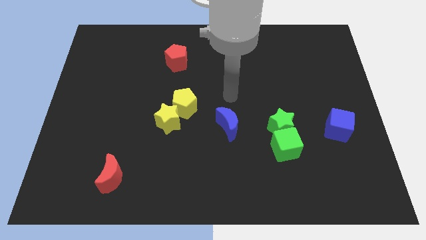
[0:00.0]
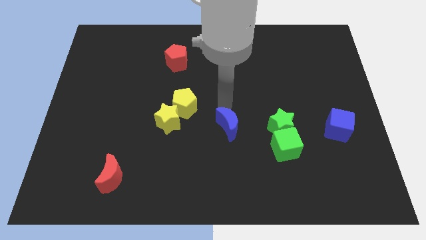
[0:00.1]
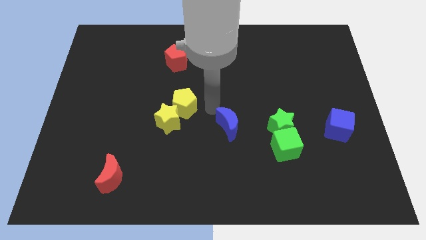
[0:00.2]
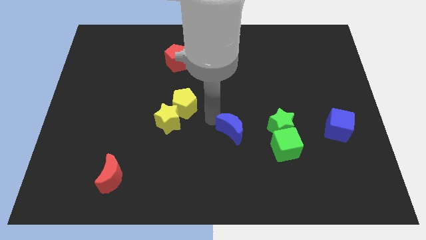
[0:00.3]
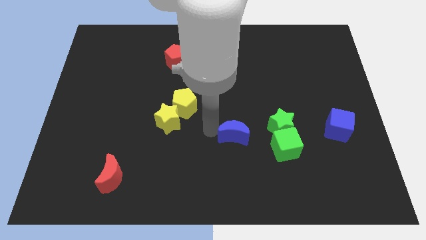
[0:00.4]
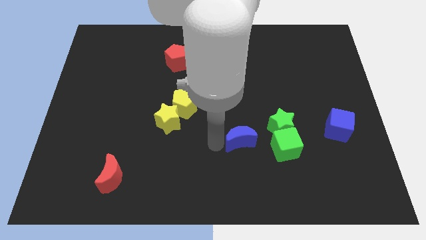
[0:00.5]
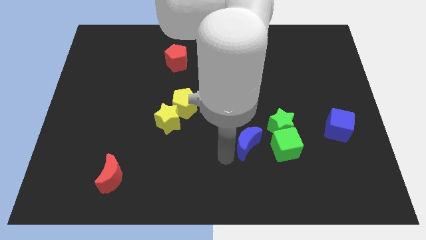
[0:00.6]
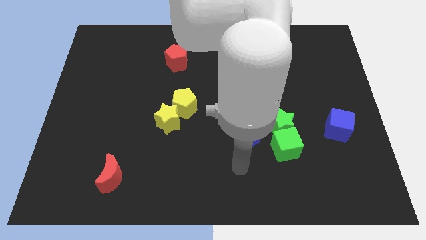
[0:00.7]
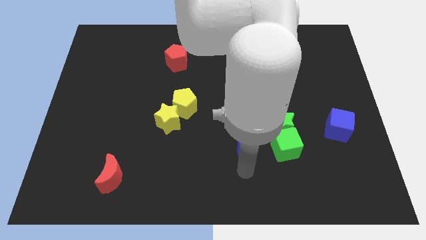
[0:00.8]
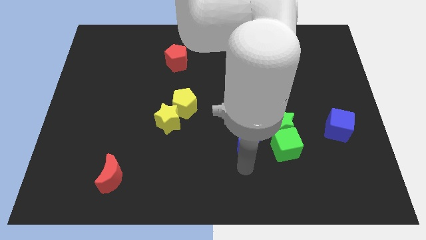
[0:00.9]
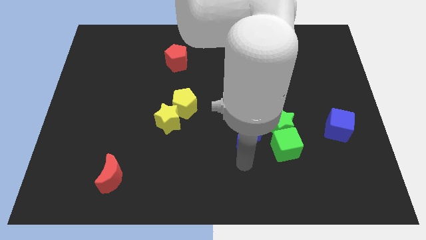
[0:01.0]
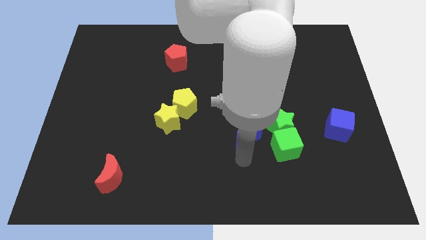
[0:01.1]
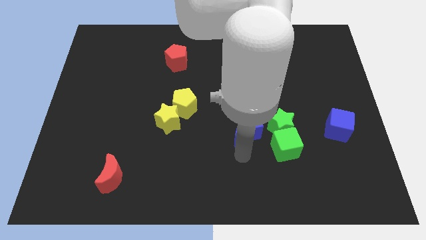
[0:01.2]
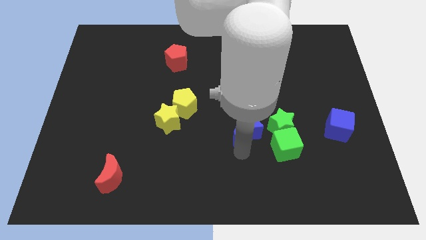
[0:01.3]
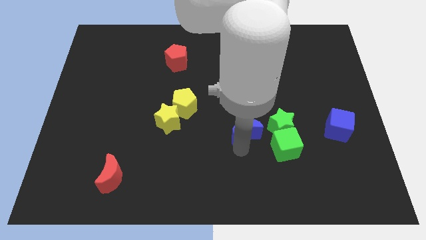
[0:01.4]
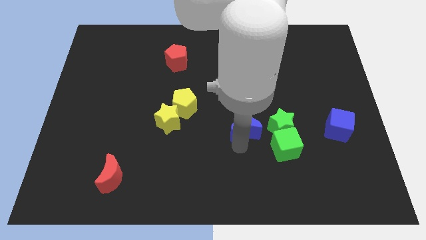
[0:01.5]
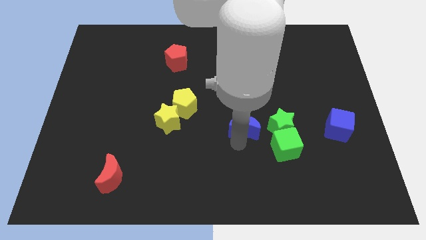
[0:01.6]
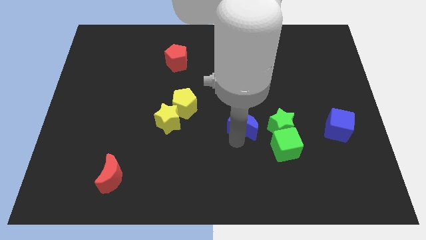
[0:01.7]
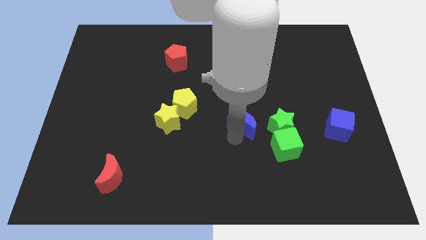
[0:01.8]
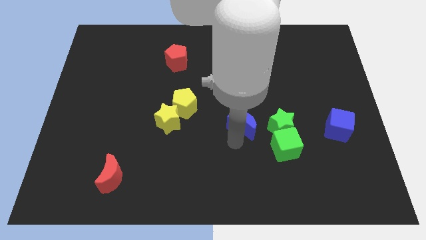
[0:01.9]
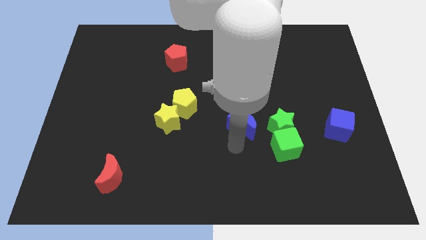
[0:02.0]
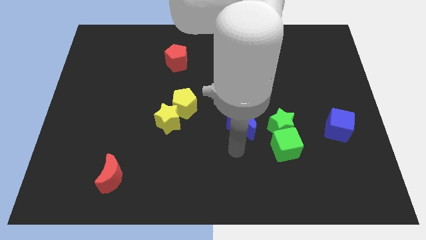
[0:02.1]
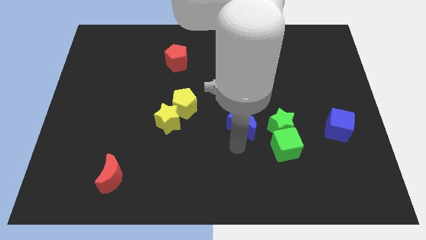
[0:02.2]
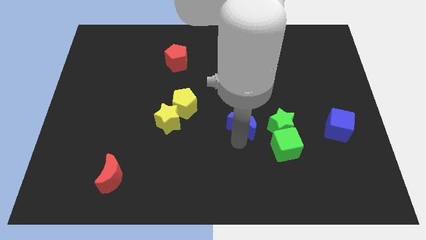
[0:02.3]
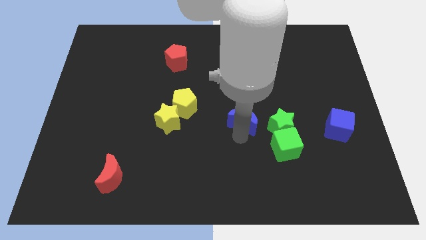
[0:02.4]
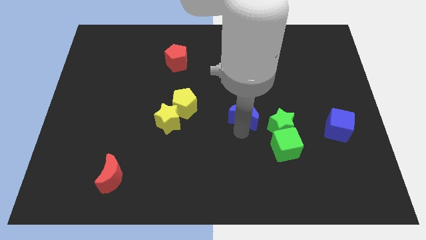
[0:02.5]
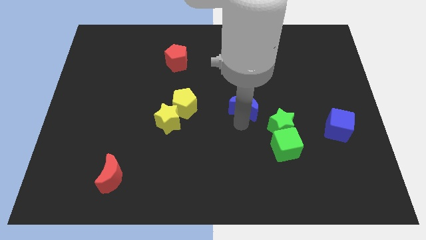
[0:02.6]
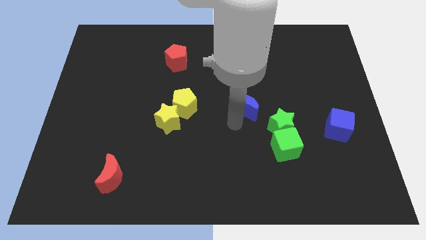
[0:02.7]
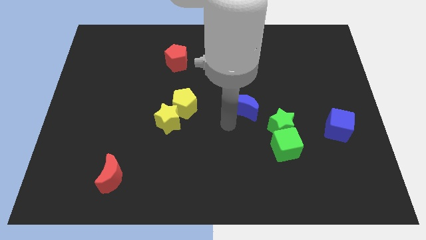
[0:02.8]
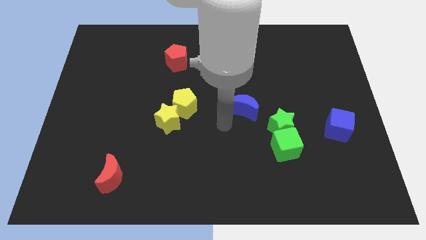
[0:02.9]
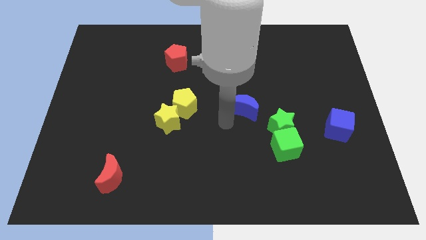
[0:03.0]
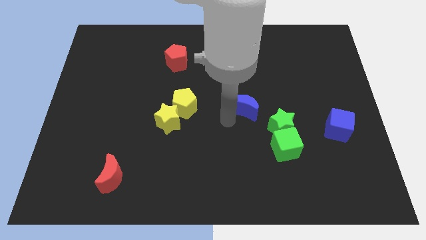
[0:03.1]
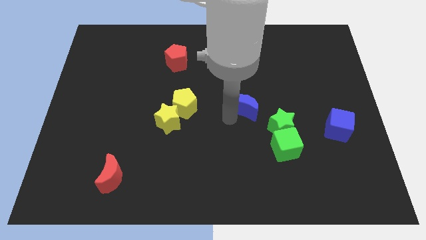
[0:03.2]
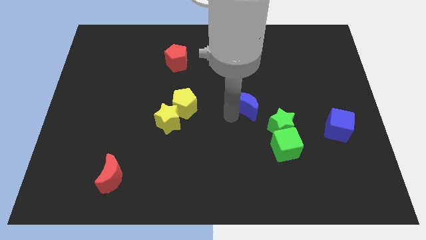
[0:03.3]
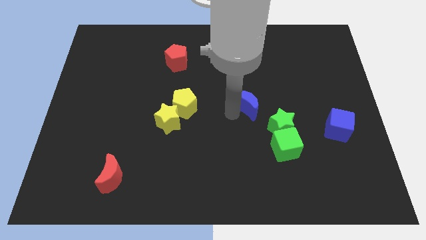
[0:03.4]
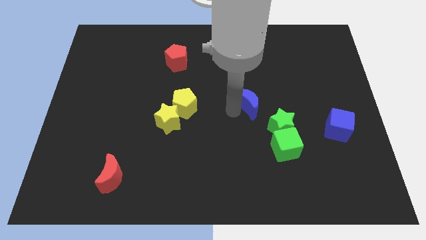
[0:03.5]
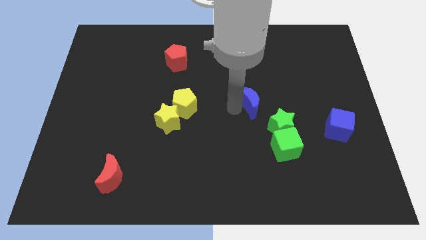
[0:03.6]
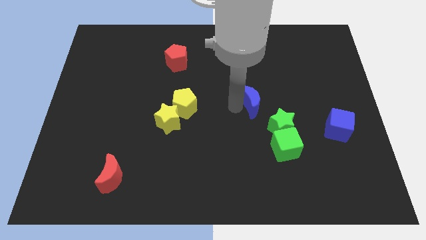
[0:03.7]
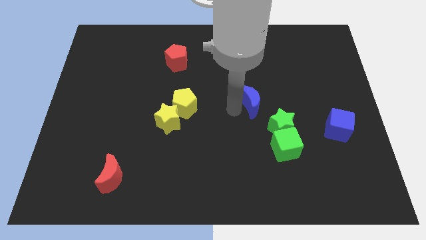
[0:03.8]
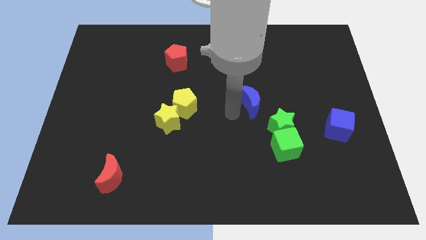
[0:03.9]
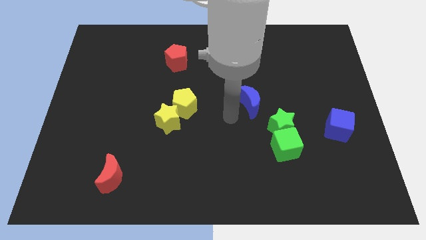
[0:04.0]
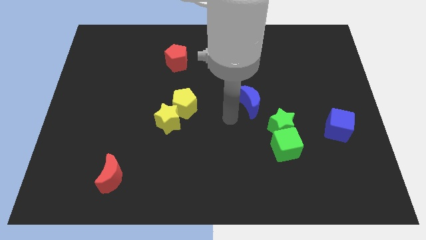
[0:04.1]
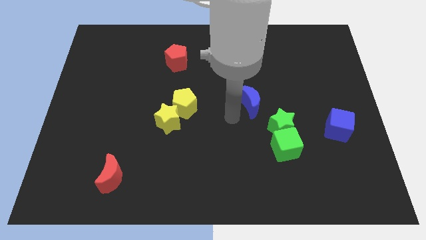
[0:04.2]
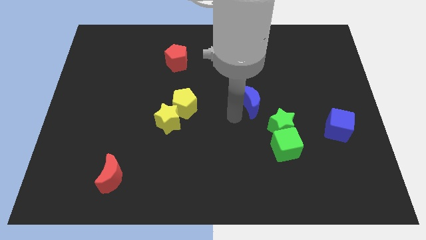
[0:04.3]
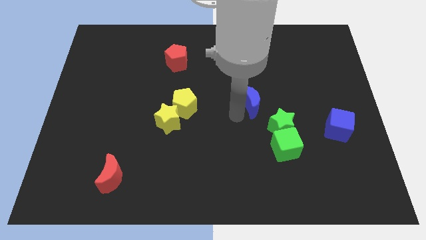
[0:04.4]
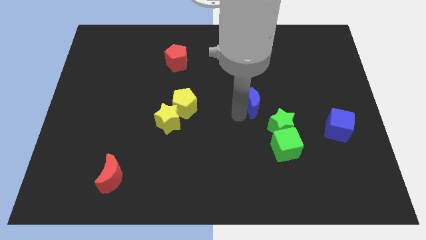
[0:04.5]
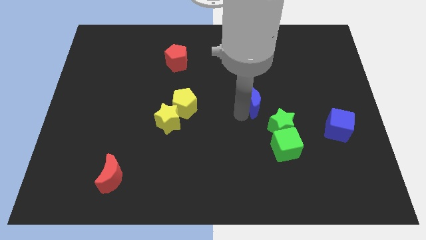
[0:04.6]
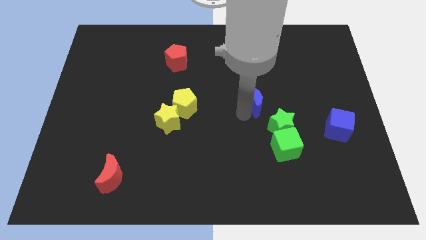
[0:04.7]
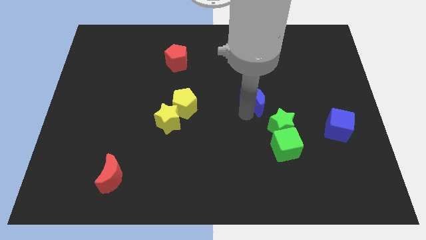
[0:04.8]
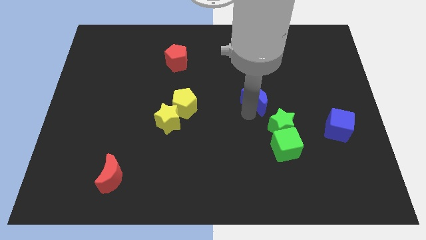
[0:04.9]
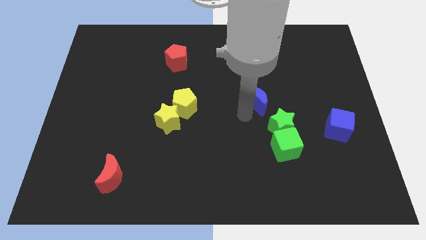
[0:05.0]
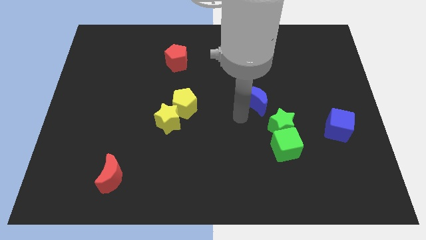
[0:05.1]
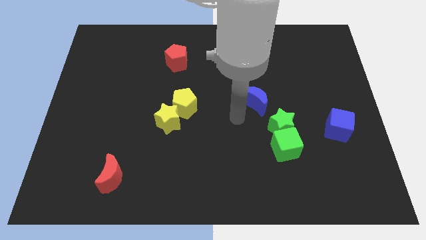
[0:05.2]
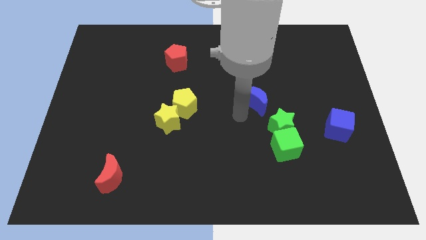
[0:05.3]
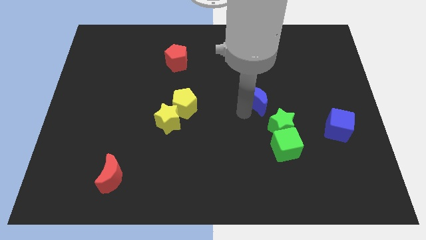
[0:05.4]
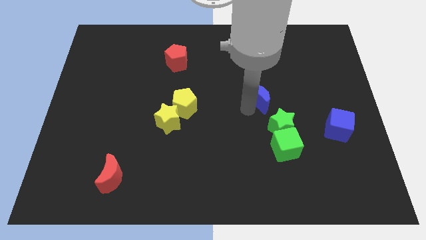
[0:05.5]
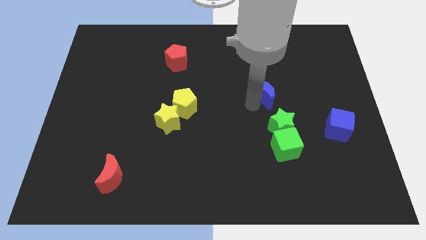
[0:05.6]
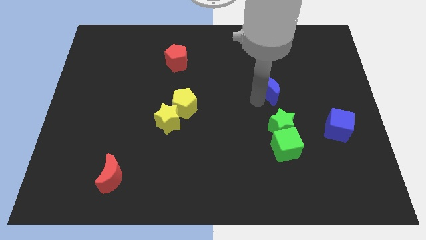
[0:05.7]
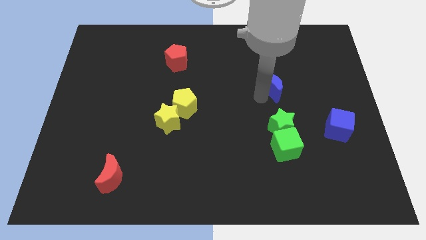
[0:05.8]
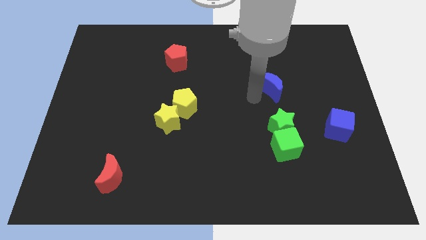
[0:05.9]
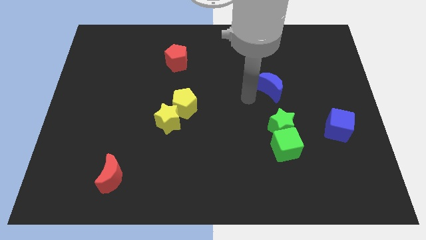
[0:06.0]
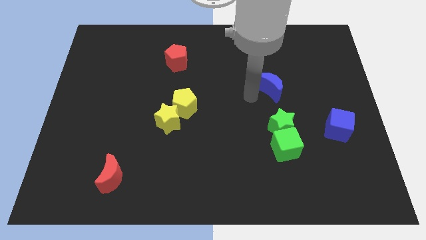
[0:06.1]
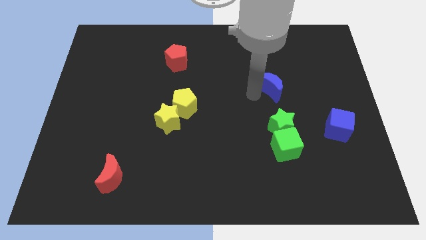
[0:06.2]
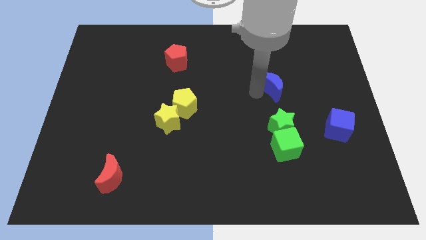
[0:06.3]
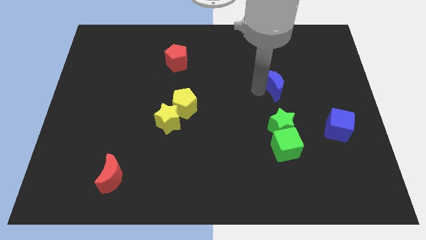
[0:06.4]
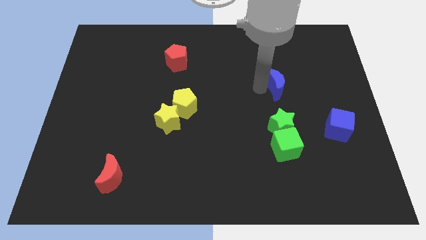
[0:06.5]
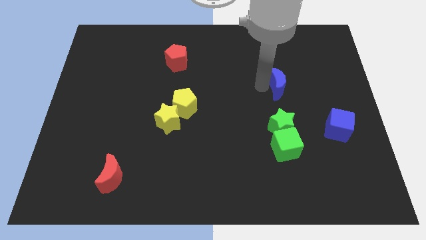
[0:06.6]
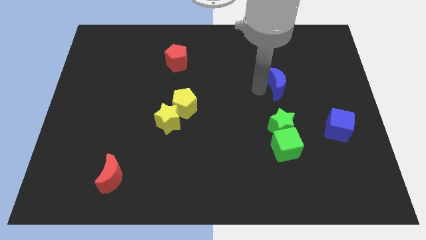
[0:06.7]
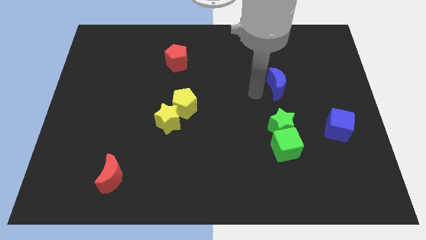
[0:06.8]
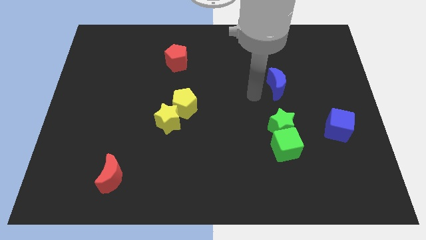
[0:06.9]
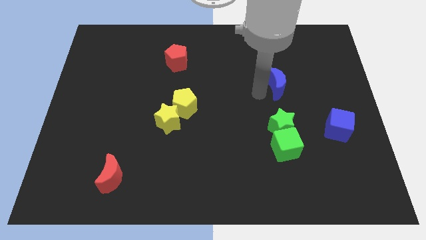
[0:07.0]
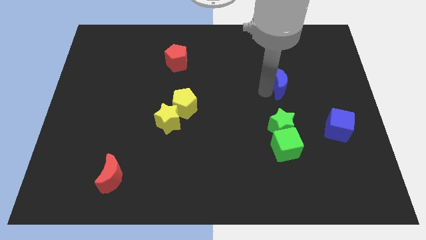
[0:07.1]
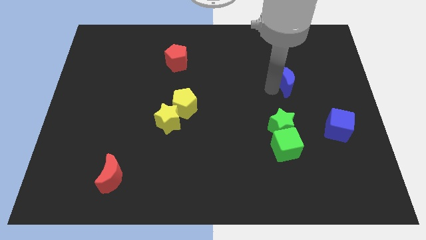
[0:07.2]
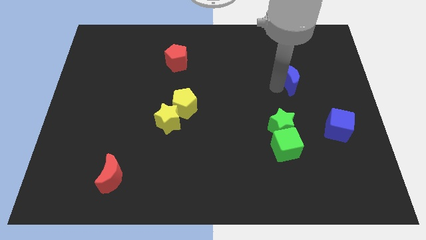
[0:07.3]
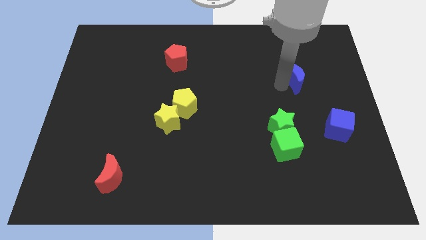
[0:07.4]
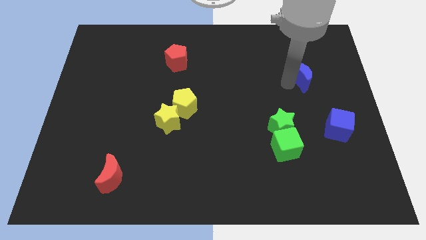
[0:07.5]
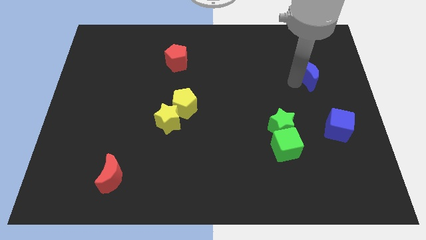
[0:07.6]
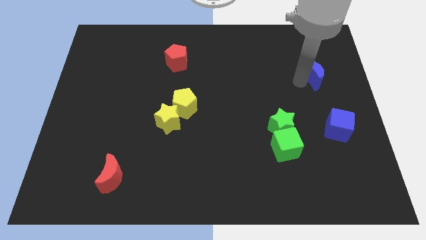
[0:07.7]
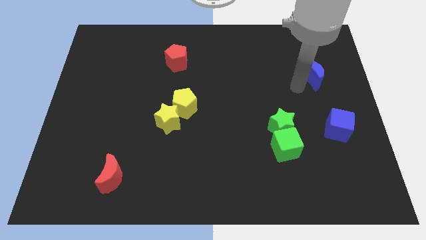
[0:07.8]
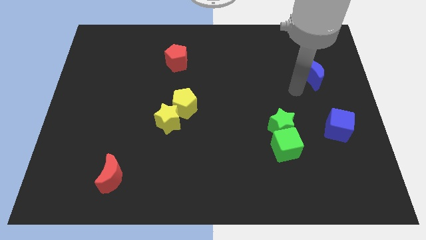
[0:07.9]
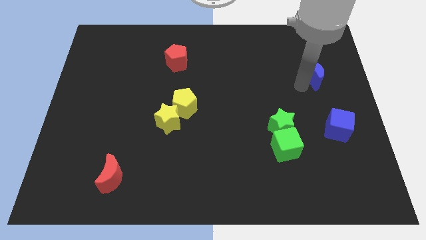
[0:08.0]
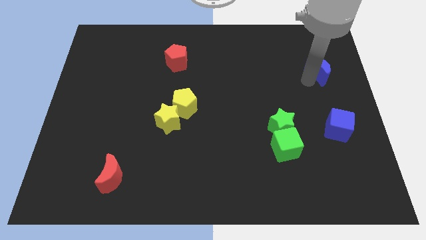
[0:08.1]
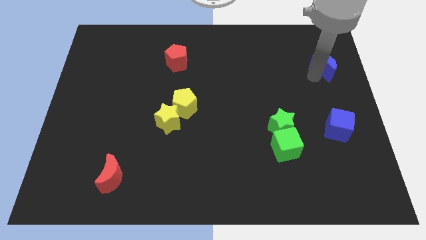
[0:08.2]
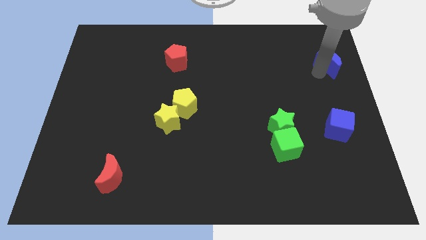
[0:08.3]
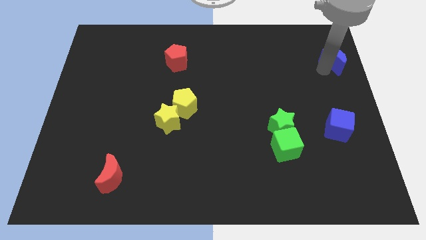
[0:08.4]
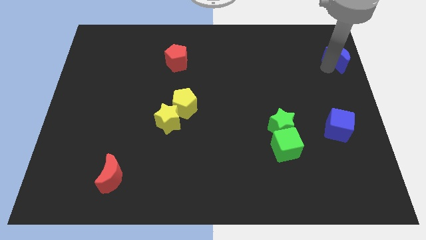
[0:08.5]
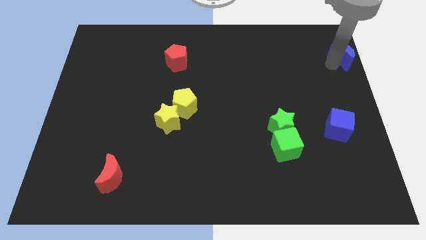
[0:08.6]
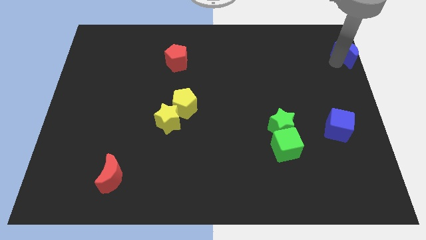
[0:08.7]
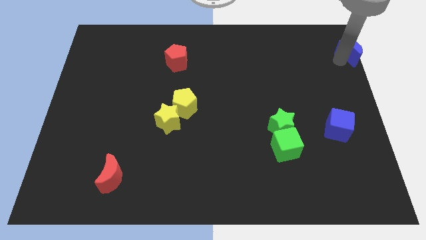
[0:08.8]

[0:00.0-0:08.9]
push the blue moon to the top right
